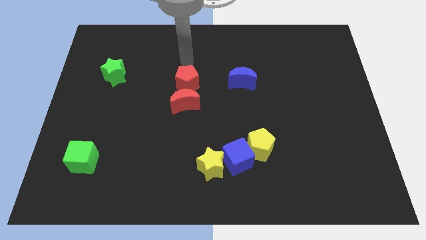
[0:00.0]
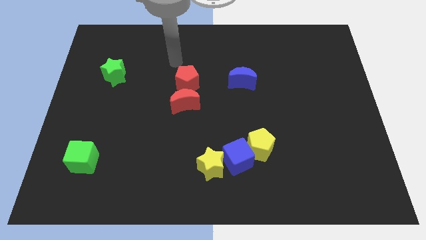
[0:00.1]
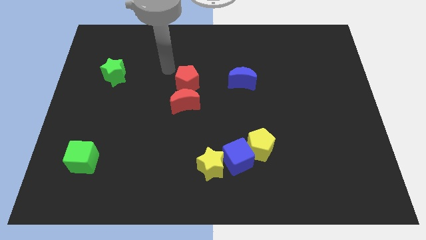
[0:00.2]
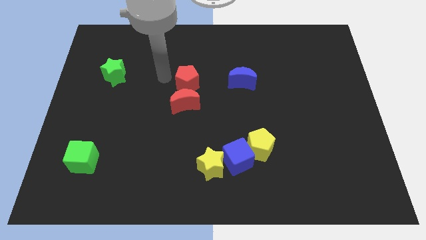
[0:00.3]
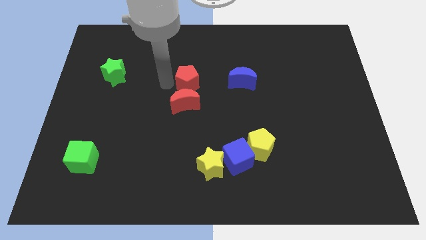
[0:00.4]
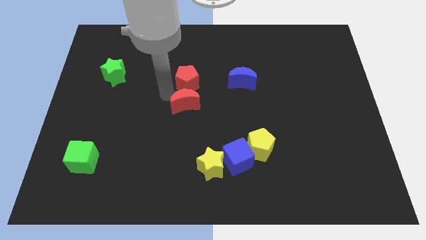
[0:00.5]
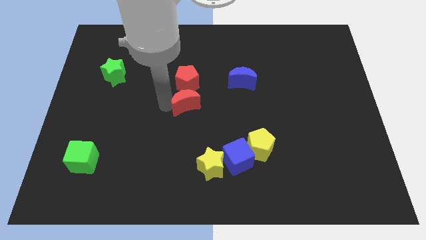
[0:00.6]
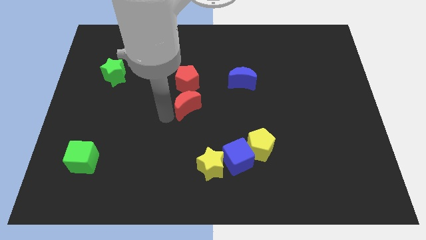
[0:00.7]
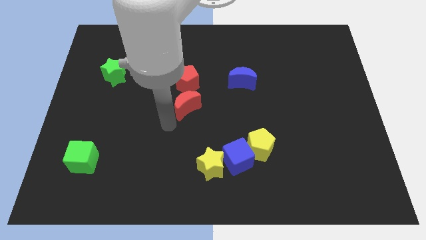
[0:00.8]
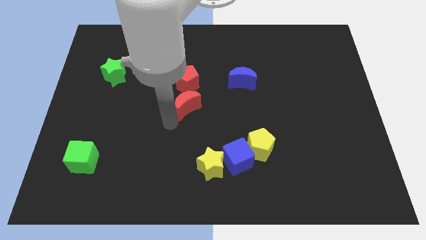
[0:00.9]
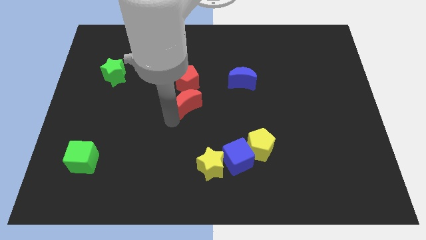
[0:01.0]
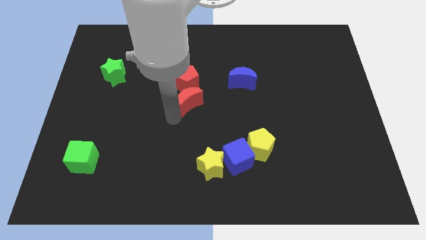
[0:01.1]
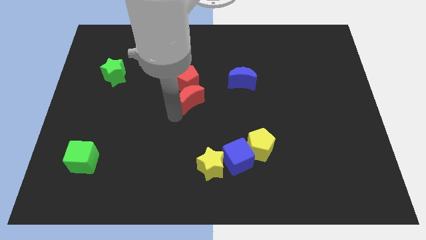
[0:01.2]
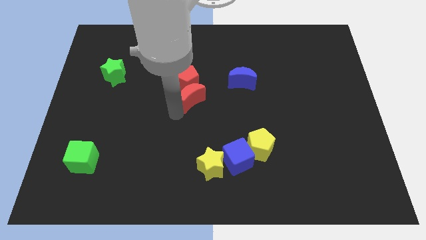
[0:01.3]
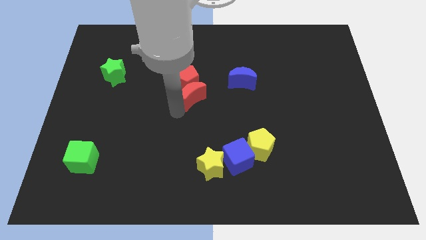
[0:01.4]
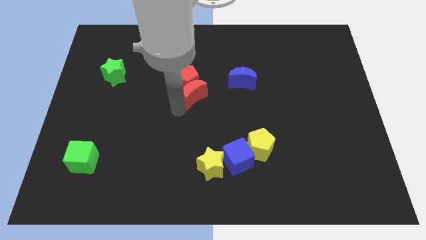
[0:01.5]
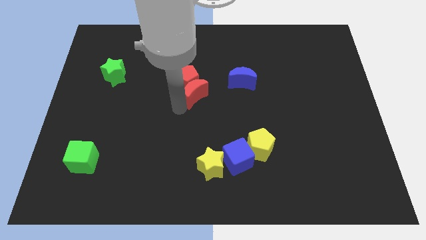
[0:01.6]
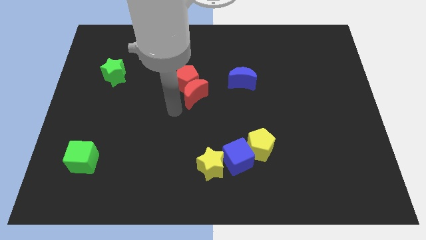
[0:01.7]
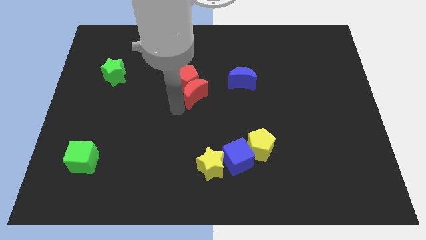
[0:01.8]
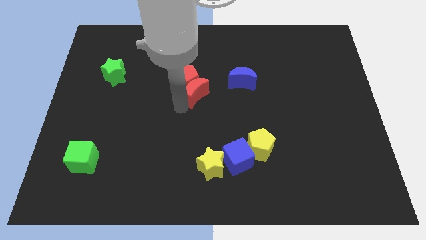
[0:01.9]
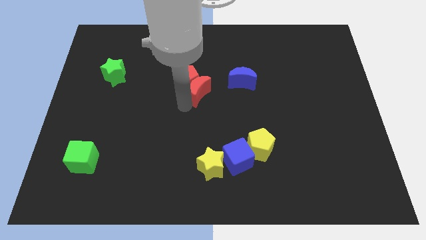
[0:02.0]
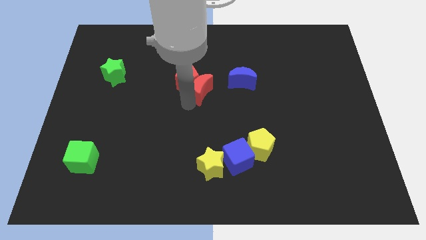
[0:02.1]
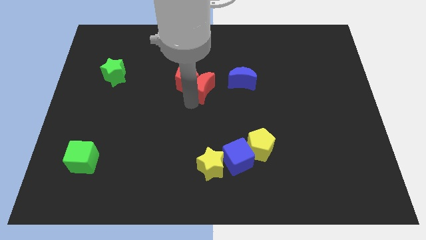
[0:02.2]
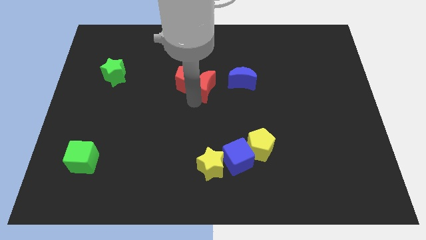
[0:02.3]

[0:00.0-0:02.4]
slightly move the red moon diagonally upwards and right

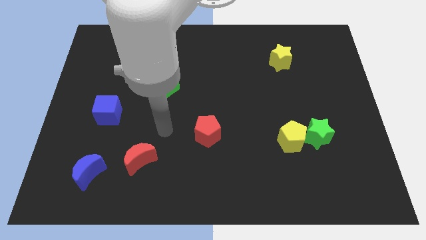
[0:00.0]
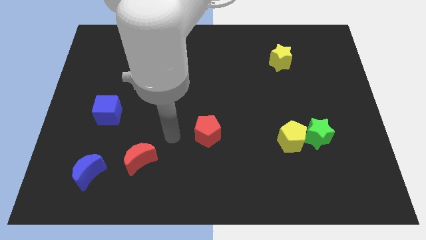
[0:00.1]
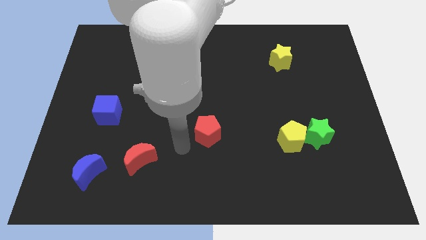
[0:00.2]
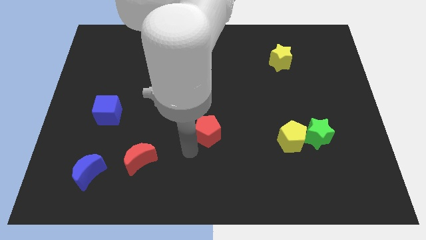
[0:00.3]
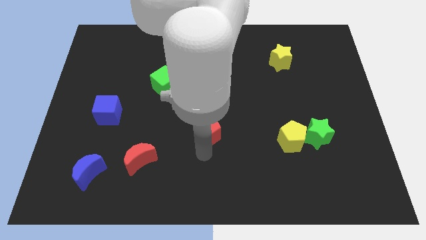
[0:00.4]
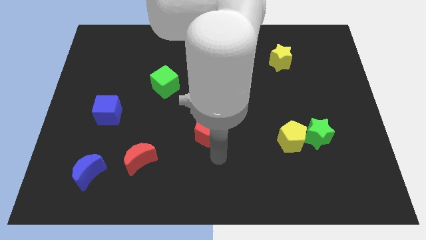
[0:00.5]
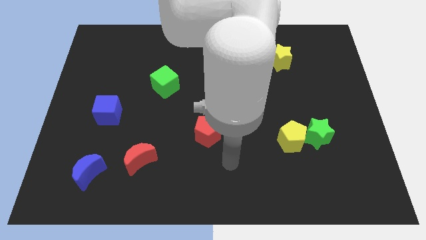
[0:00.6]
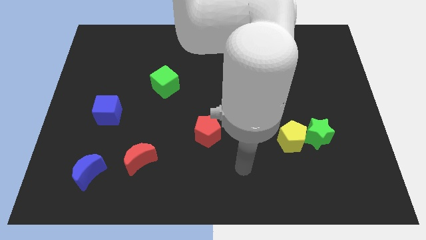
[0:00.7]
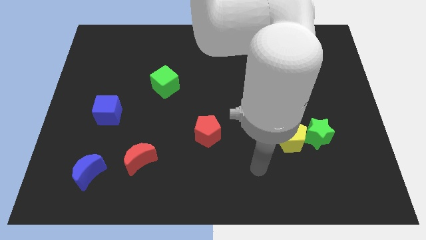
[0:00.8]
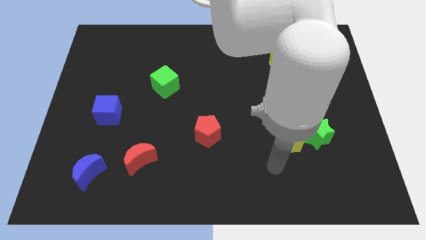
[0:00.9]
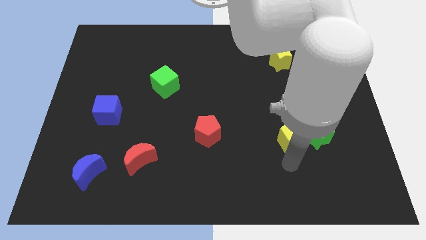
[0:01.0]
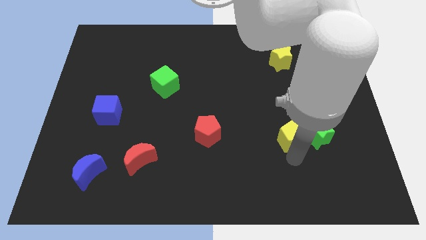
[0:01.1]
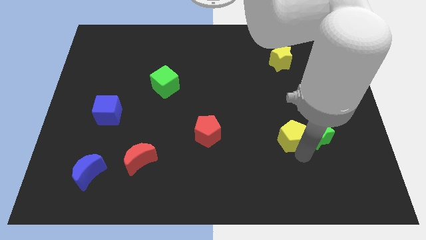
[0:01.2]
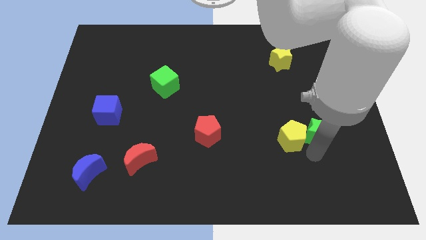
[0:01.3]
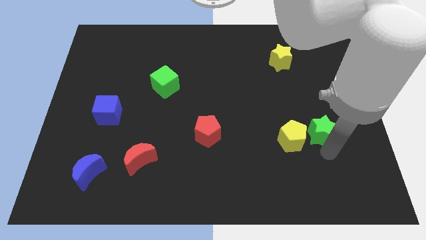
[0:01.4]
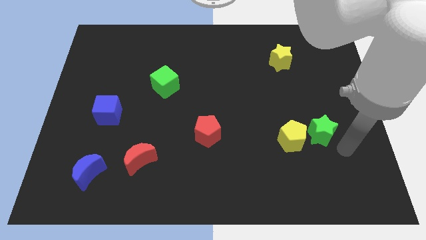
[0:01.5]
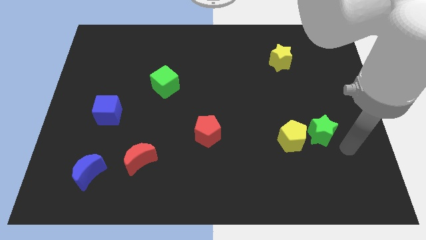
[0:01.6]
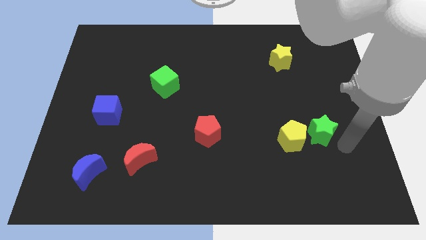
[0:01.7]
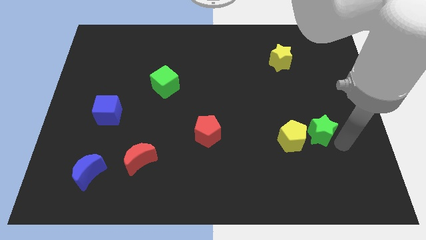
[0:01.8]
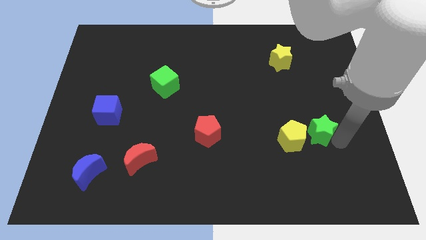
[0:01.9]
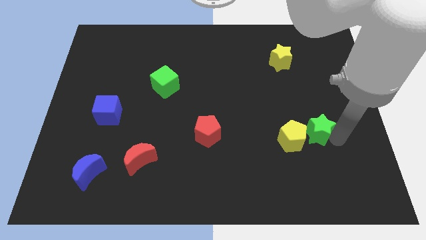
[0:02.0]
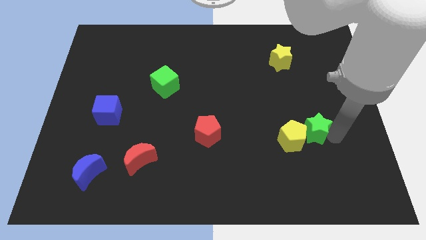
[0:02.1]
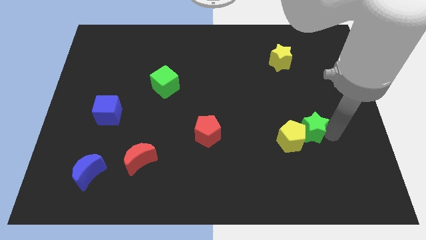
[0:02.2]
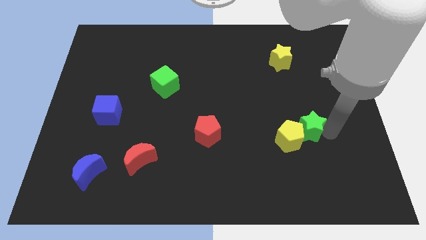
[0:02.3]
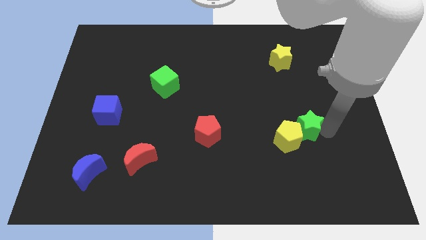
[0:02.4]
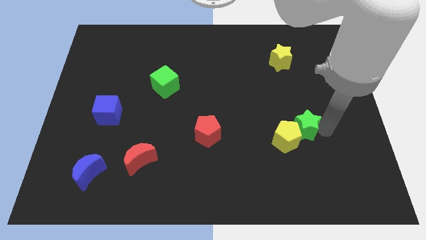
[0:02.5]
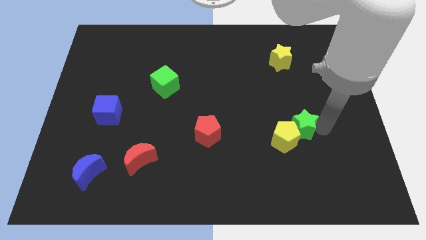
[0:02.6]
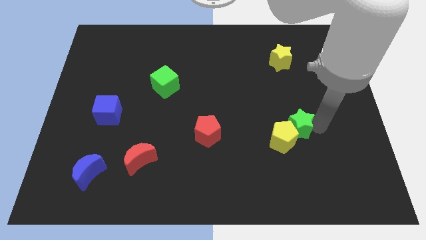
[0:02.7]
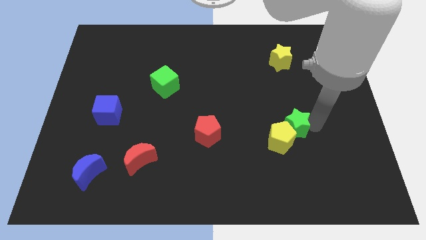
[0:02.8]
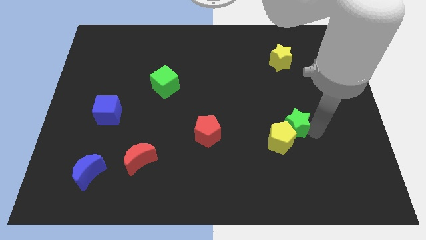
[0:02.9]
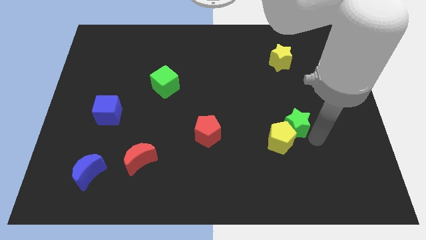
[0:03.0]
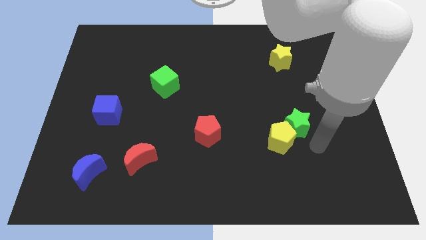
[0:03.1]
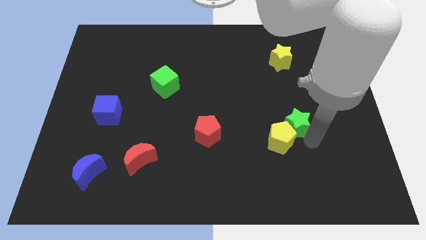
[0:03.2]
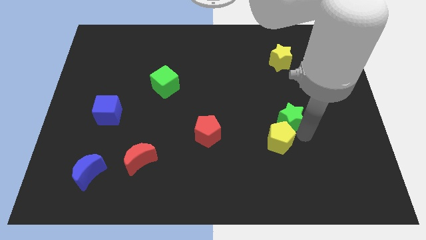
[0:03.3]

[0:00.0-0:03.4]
push the green star up and then to the left somewhat

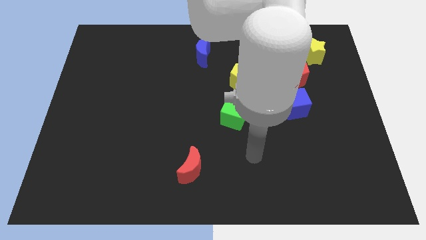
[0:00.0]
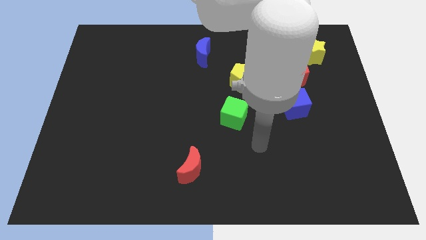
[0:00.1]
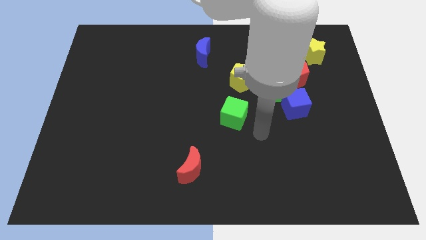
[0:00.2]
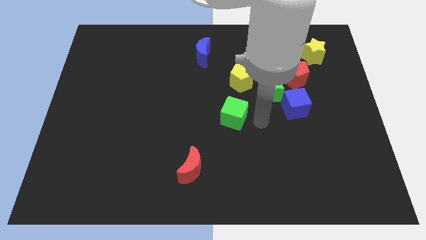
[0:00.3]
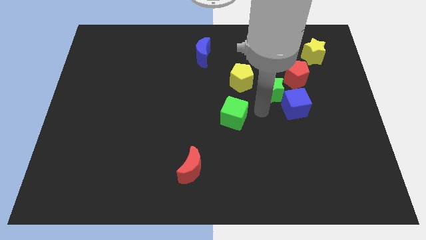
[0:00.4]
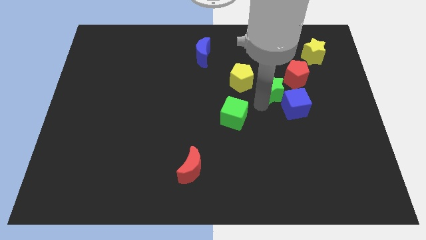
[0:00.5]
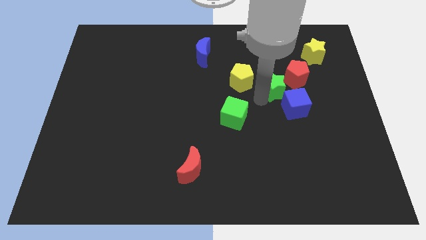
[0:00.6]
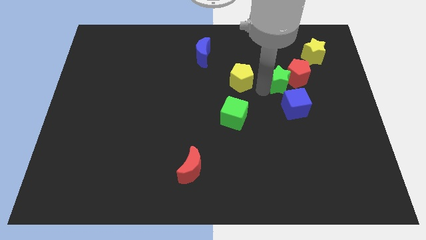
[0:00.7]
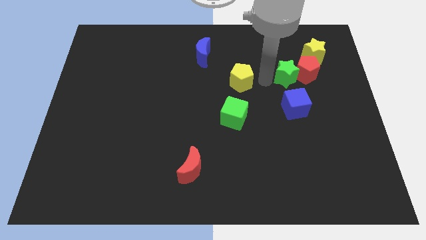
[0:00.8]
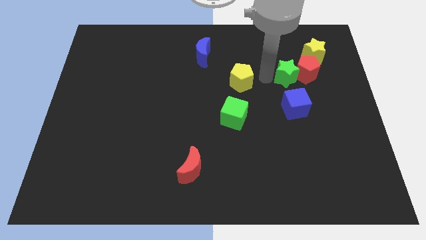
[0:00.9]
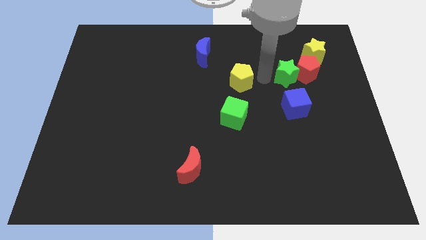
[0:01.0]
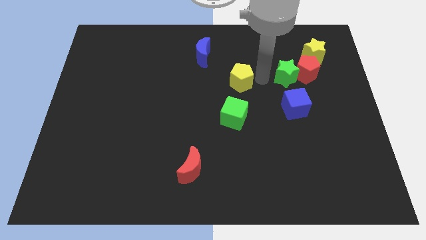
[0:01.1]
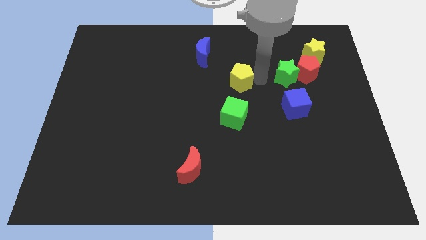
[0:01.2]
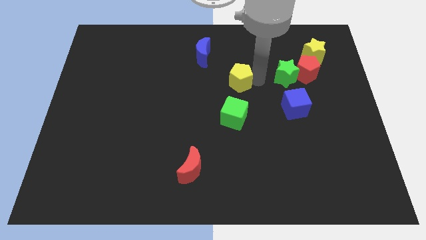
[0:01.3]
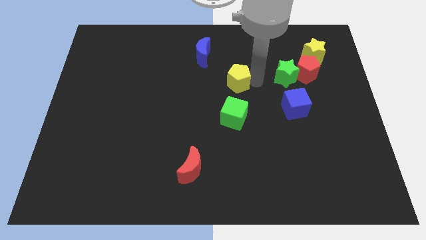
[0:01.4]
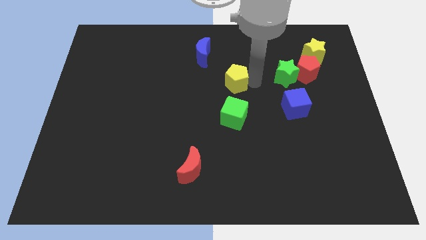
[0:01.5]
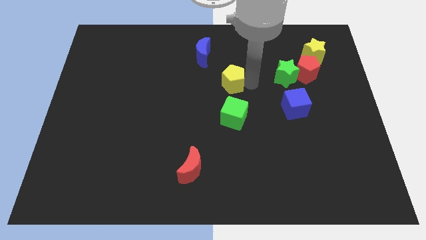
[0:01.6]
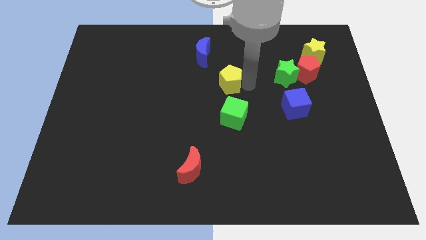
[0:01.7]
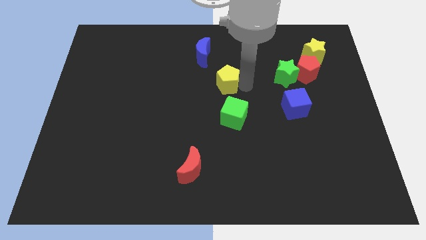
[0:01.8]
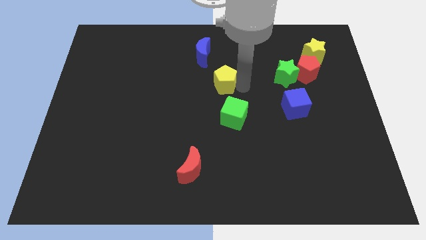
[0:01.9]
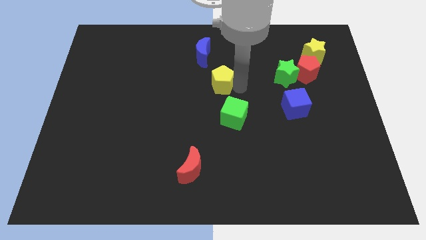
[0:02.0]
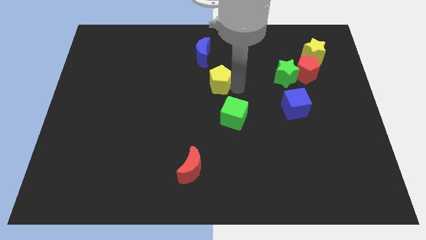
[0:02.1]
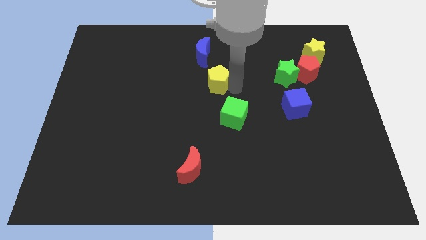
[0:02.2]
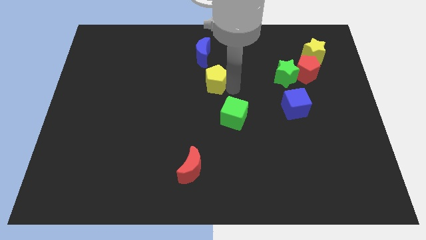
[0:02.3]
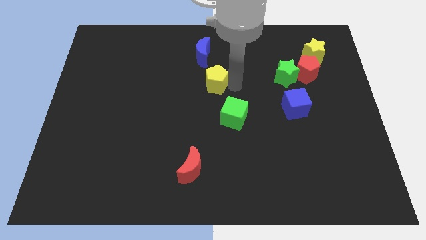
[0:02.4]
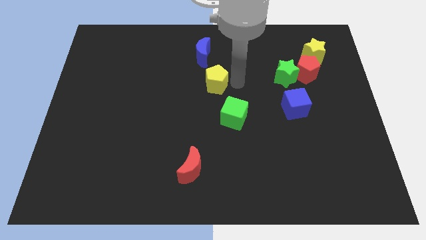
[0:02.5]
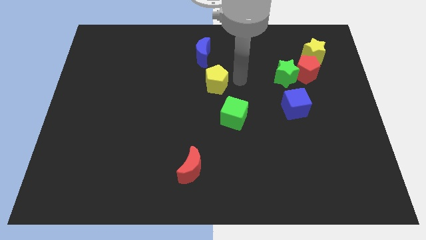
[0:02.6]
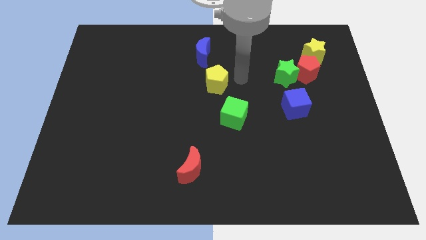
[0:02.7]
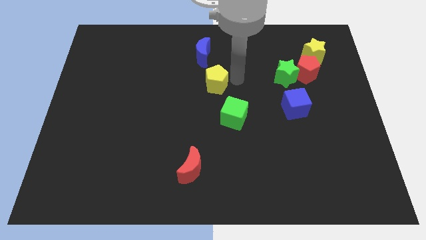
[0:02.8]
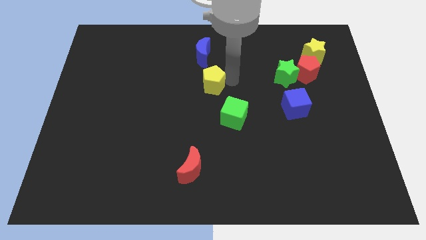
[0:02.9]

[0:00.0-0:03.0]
slide the yellow pentagon to the left slightly
